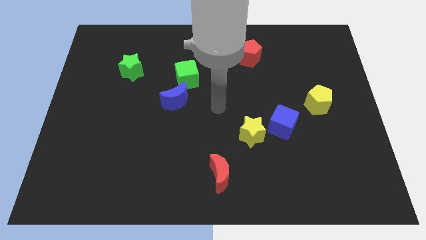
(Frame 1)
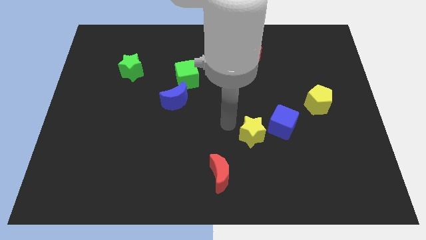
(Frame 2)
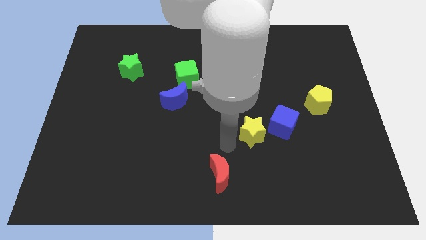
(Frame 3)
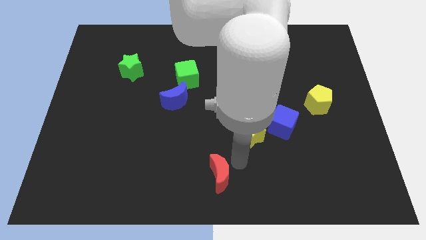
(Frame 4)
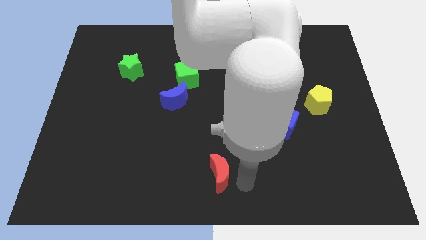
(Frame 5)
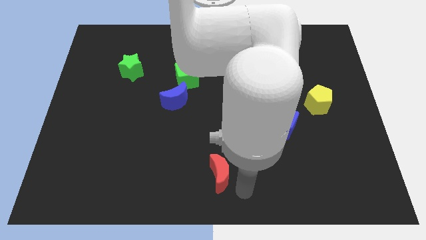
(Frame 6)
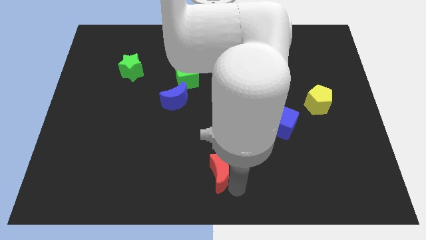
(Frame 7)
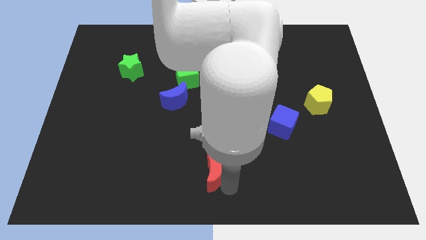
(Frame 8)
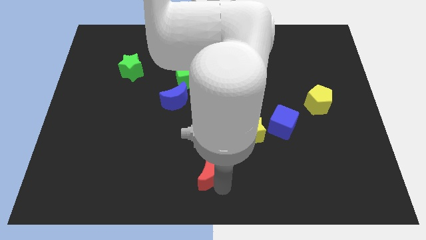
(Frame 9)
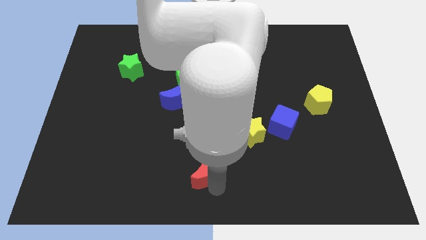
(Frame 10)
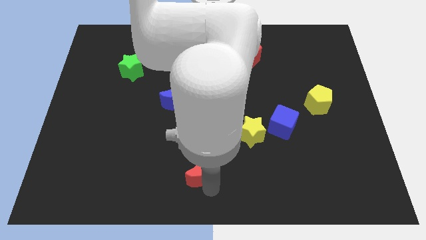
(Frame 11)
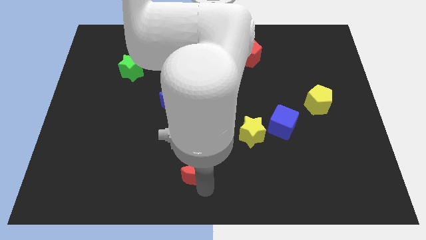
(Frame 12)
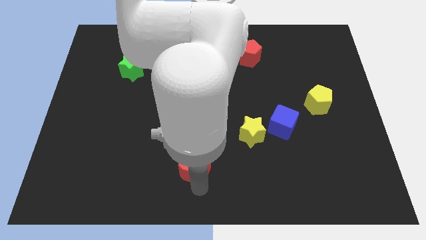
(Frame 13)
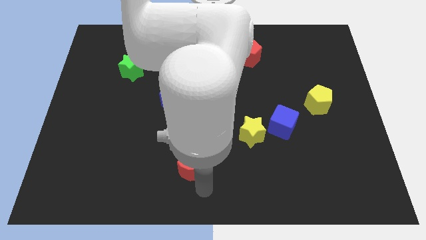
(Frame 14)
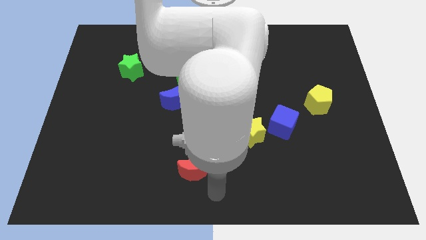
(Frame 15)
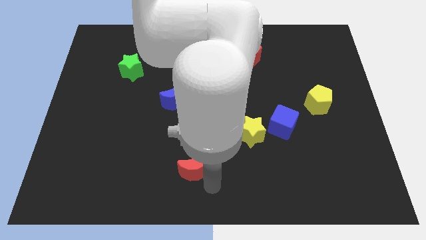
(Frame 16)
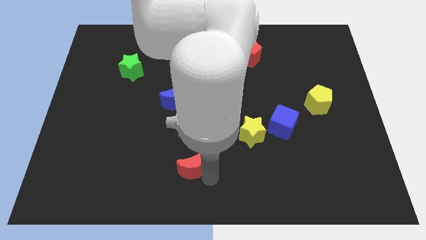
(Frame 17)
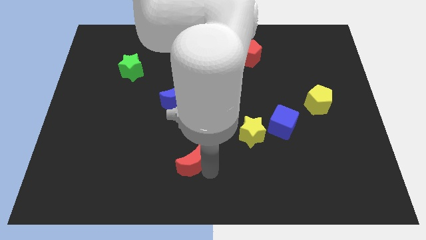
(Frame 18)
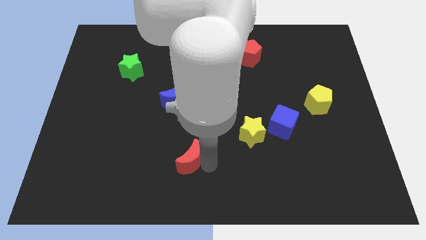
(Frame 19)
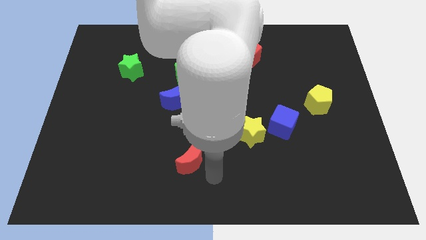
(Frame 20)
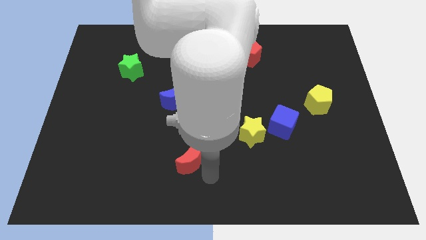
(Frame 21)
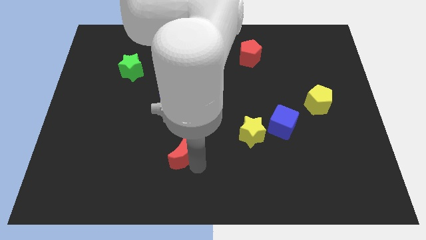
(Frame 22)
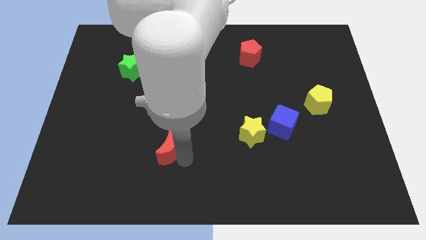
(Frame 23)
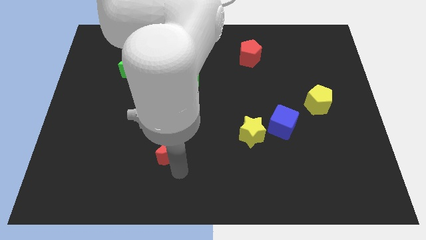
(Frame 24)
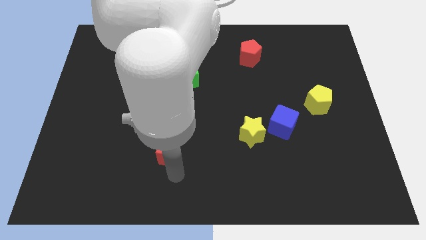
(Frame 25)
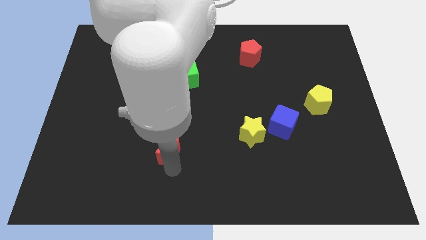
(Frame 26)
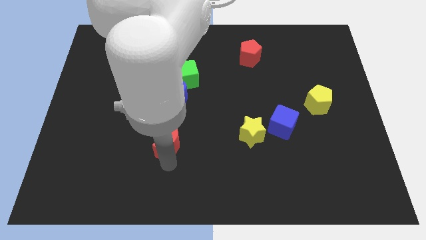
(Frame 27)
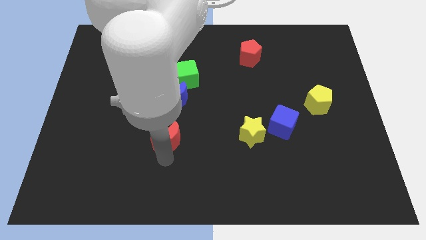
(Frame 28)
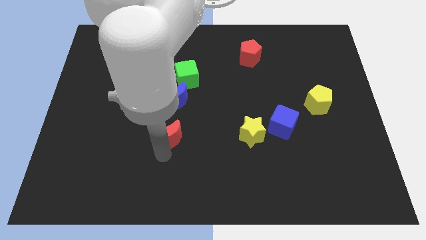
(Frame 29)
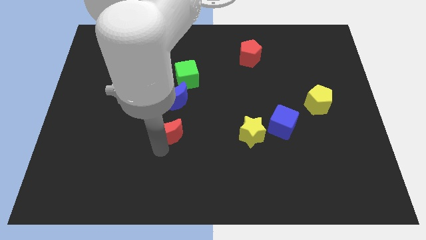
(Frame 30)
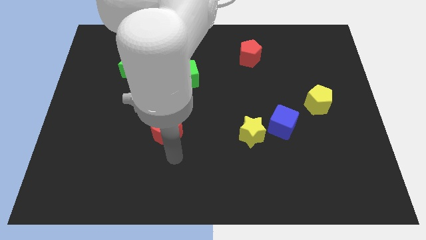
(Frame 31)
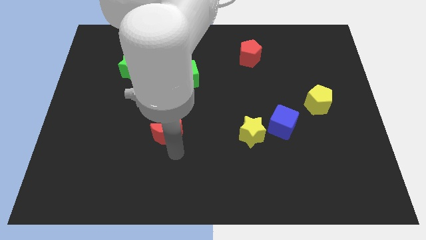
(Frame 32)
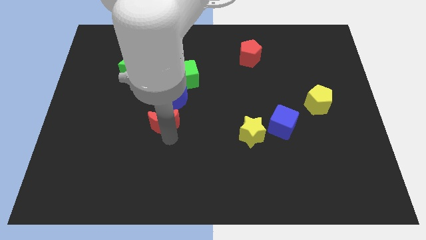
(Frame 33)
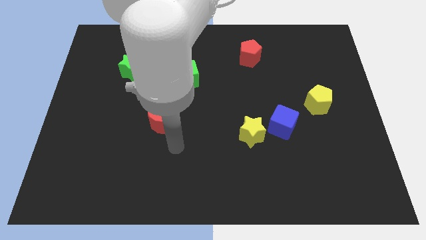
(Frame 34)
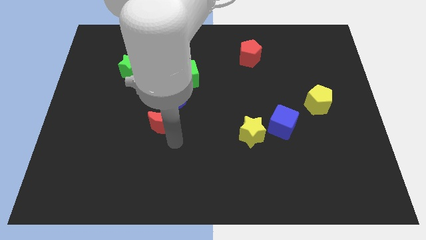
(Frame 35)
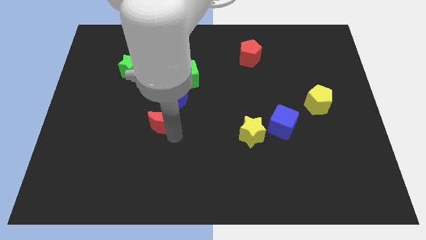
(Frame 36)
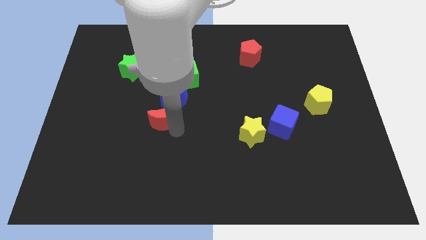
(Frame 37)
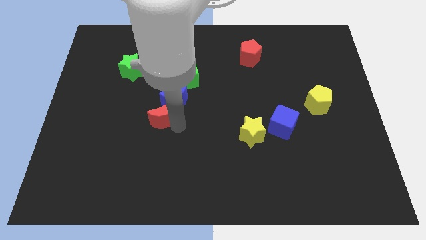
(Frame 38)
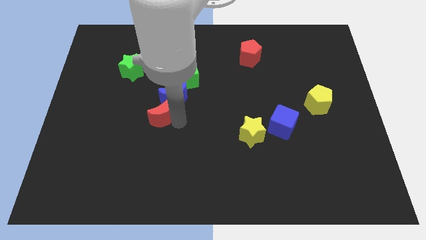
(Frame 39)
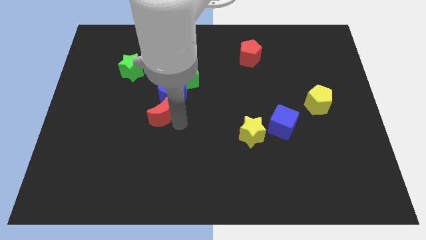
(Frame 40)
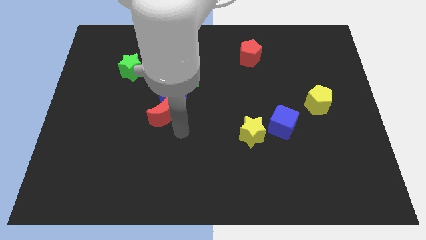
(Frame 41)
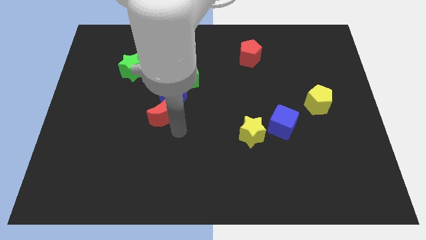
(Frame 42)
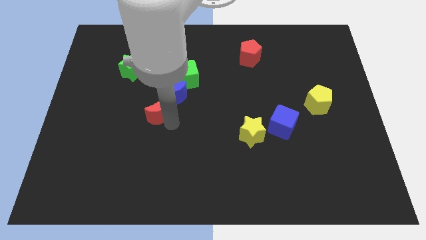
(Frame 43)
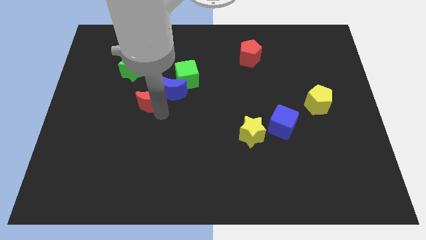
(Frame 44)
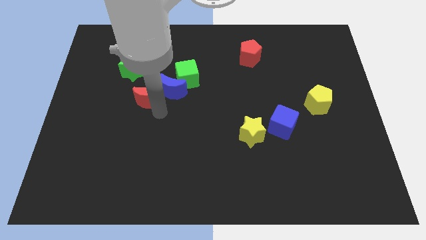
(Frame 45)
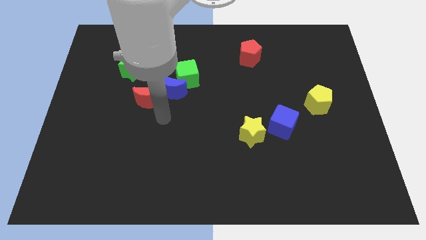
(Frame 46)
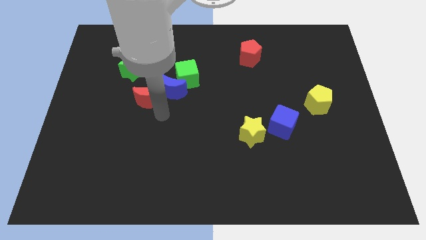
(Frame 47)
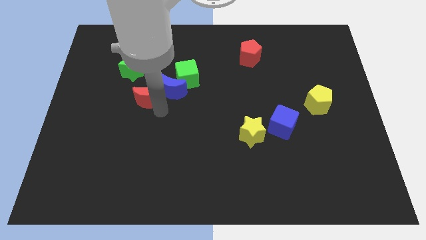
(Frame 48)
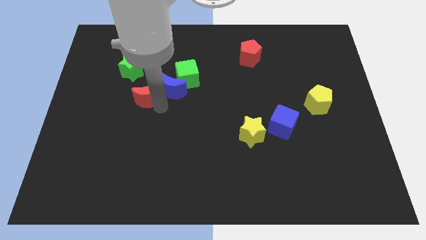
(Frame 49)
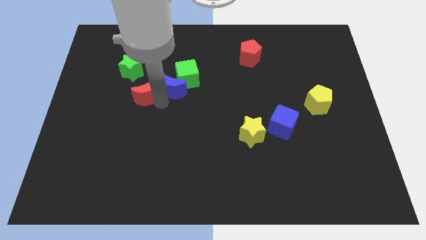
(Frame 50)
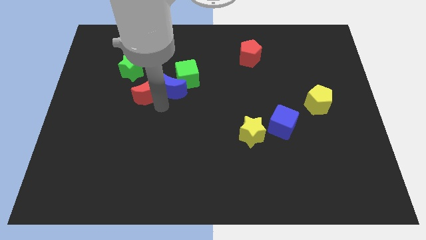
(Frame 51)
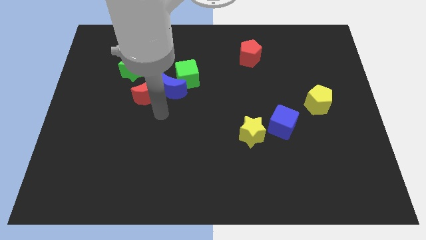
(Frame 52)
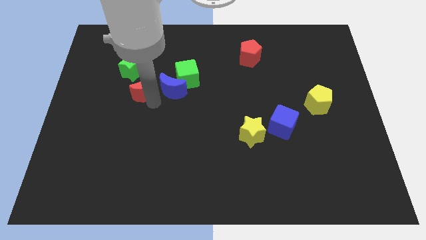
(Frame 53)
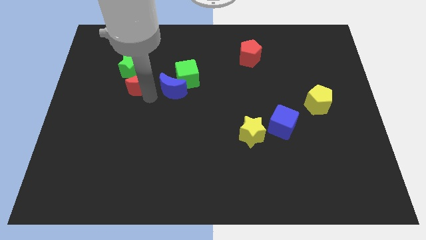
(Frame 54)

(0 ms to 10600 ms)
move the red moon to the green star

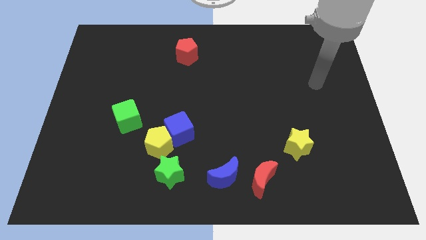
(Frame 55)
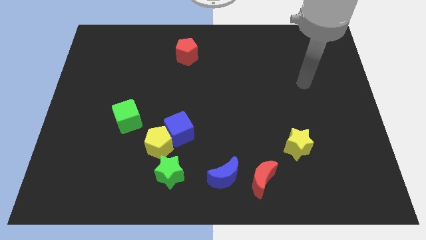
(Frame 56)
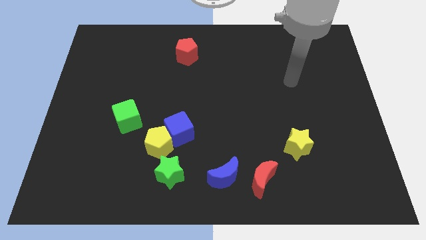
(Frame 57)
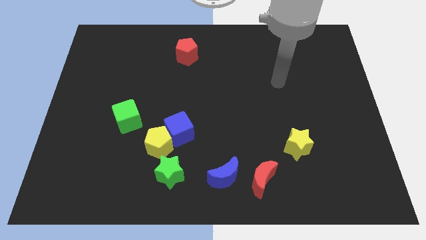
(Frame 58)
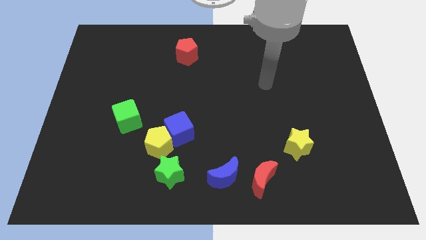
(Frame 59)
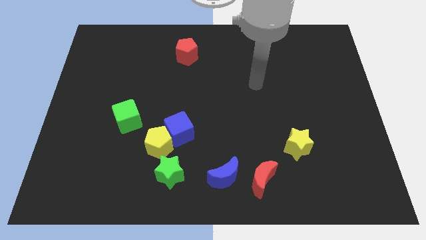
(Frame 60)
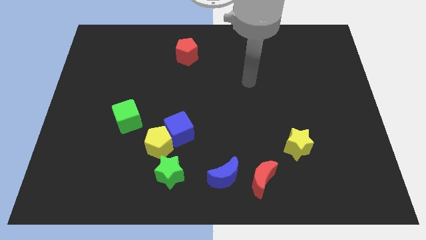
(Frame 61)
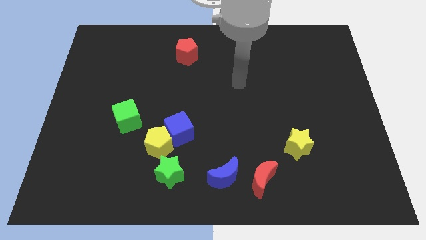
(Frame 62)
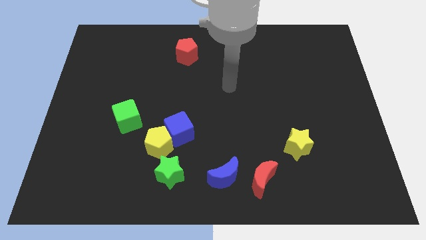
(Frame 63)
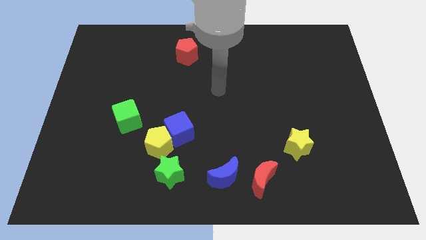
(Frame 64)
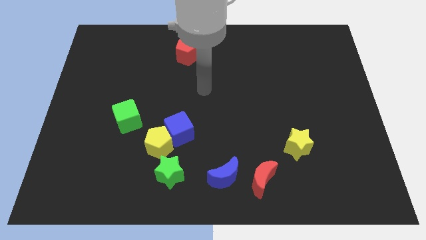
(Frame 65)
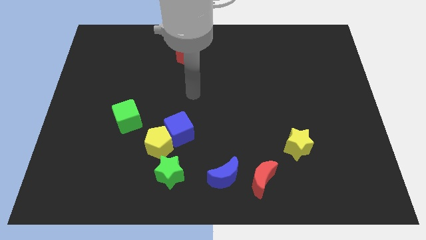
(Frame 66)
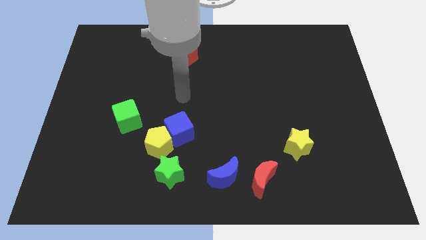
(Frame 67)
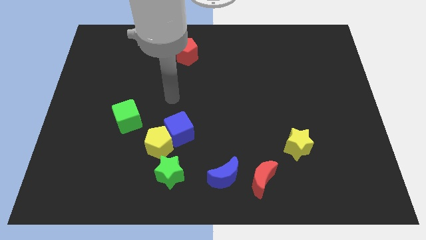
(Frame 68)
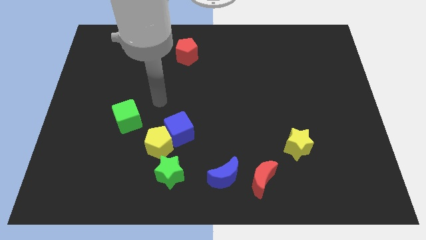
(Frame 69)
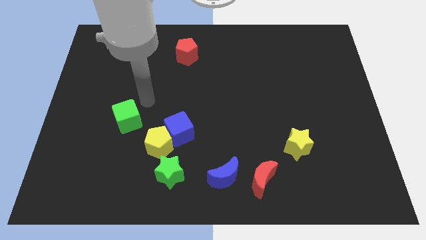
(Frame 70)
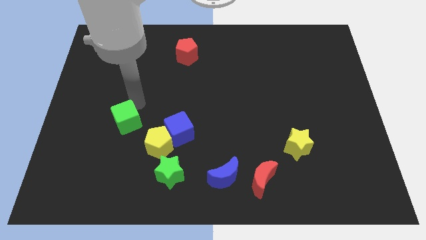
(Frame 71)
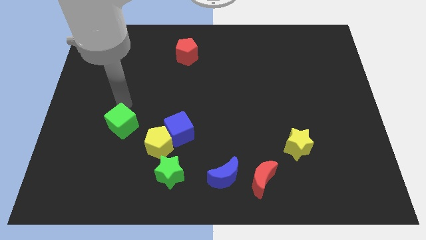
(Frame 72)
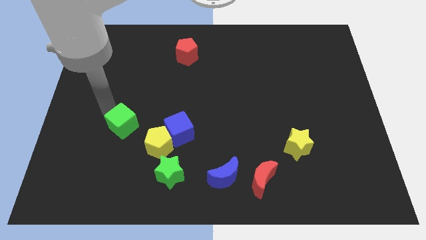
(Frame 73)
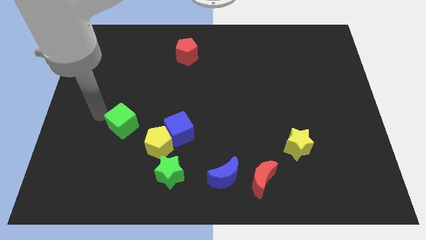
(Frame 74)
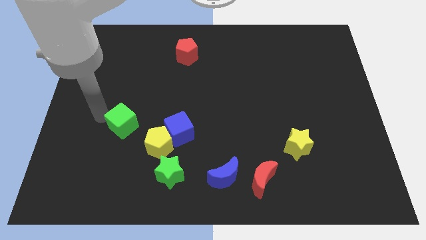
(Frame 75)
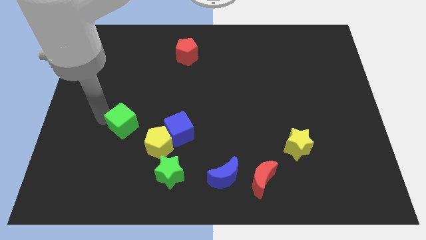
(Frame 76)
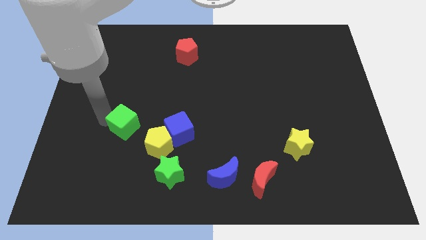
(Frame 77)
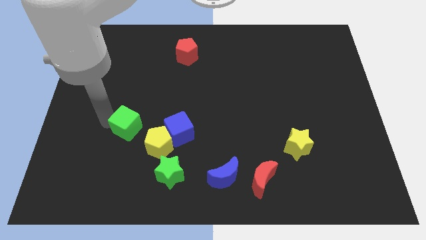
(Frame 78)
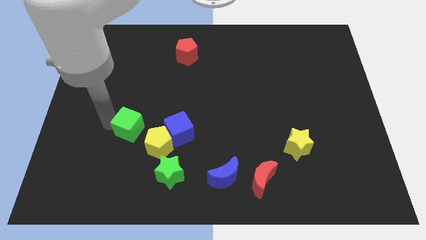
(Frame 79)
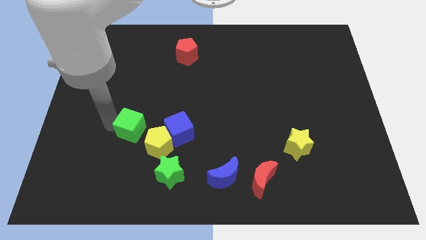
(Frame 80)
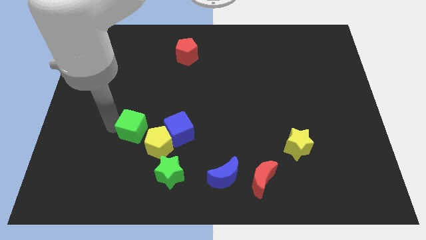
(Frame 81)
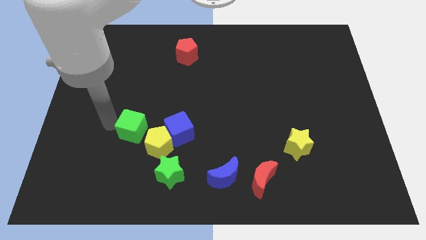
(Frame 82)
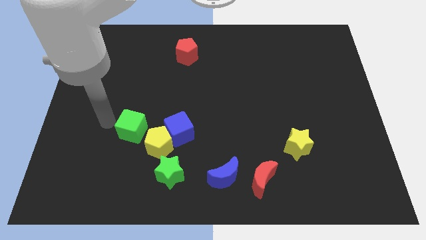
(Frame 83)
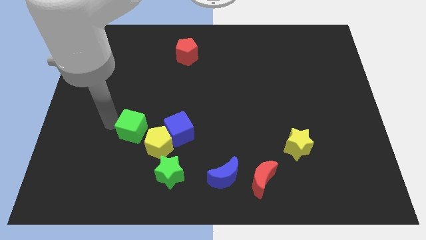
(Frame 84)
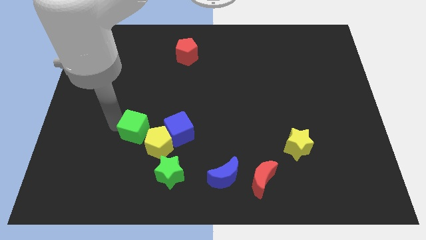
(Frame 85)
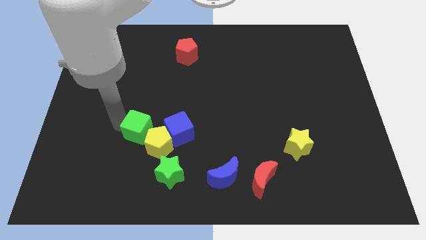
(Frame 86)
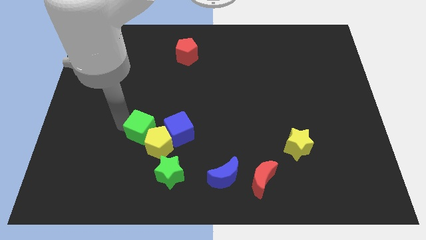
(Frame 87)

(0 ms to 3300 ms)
push the green cube towards the yellow pentagon
